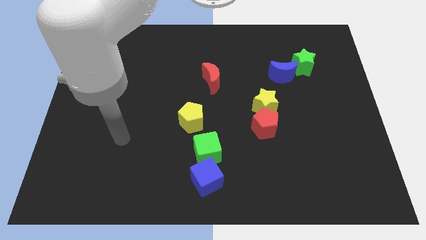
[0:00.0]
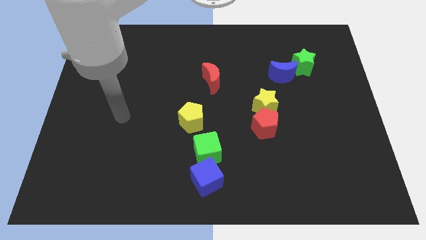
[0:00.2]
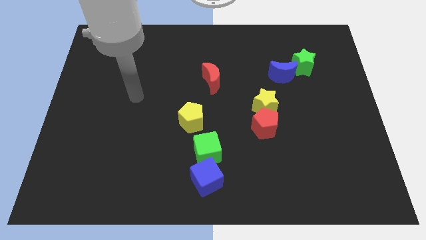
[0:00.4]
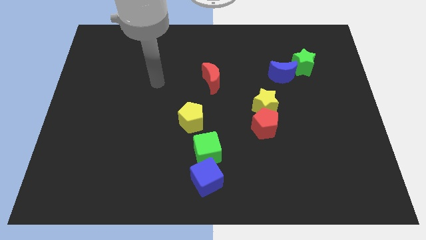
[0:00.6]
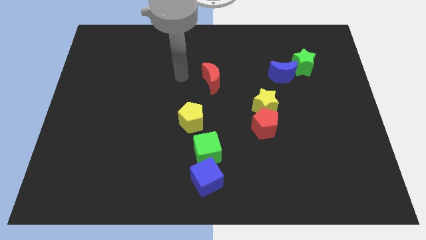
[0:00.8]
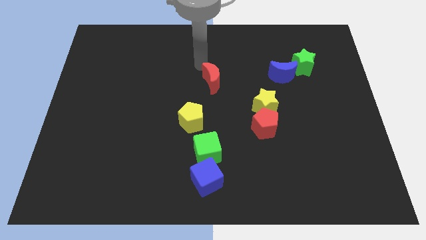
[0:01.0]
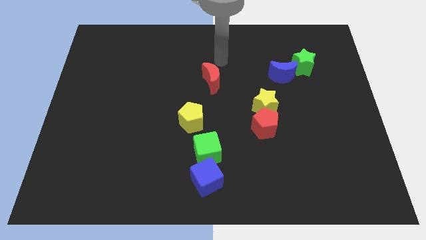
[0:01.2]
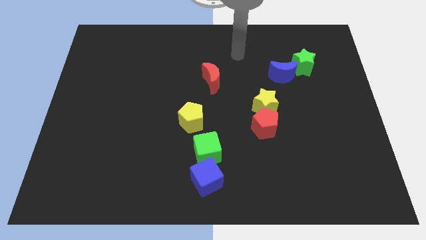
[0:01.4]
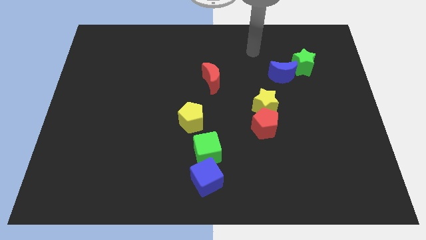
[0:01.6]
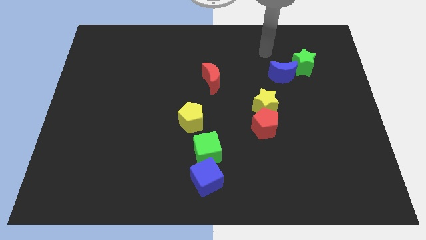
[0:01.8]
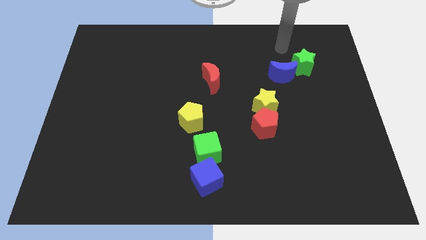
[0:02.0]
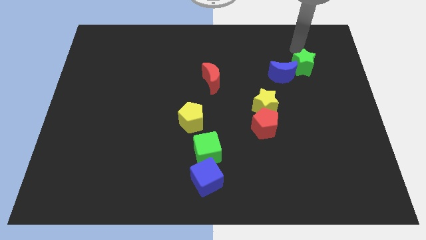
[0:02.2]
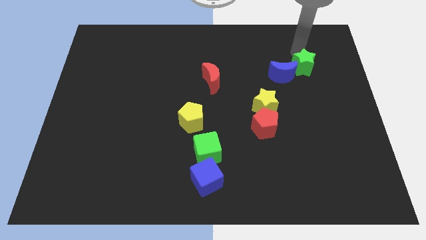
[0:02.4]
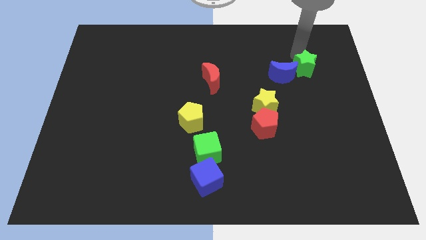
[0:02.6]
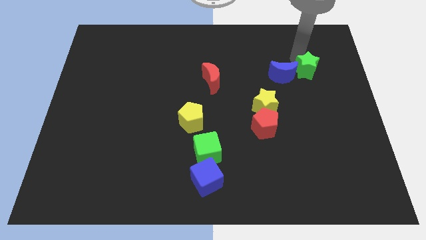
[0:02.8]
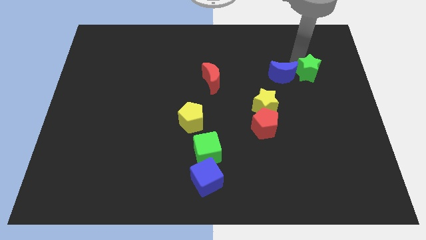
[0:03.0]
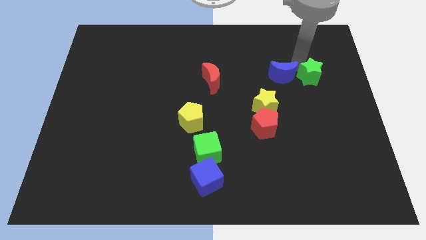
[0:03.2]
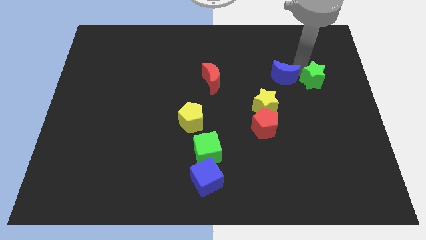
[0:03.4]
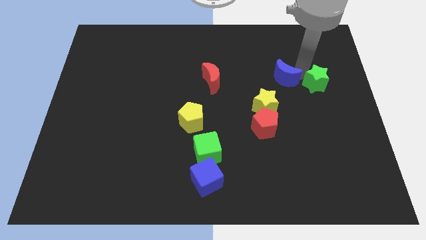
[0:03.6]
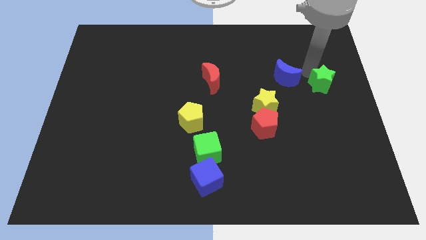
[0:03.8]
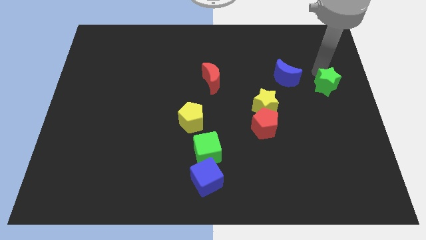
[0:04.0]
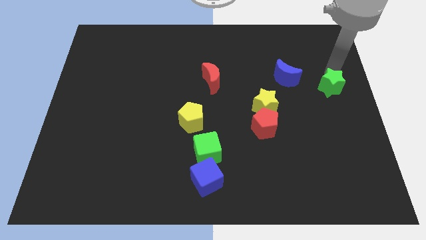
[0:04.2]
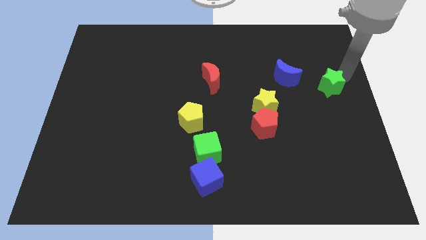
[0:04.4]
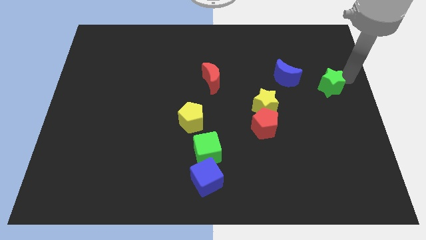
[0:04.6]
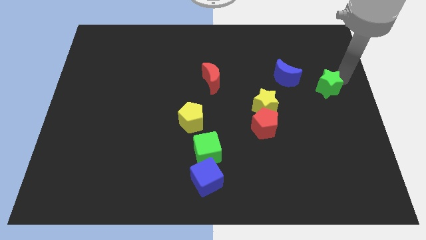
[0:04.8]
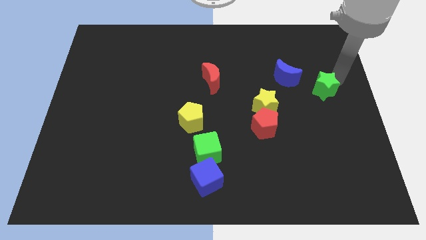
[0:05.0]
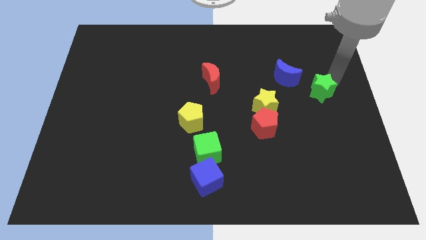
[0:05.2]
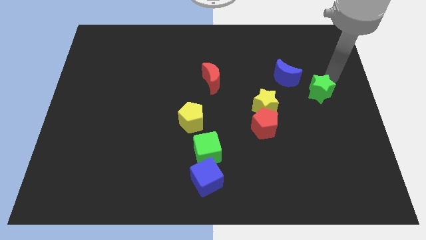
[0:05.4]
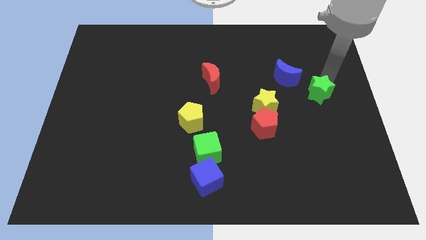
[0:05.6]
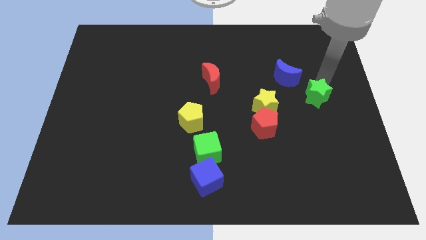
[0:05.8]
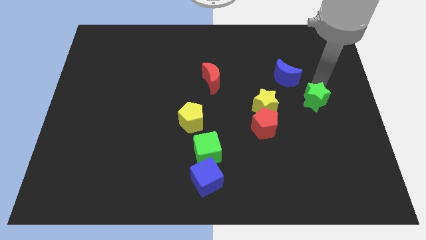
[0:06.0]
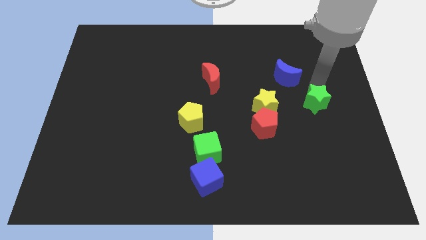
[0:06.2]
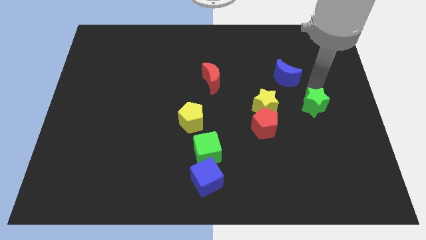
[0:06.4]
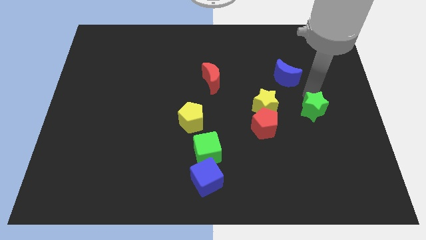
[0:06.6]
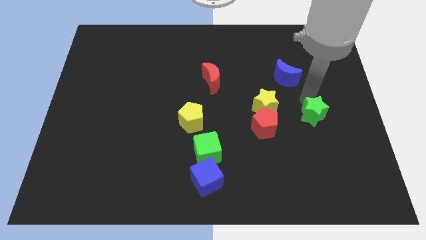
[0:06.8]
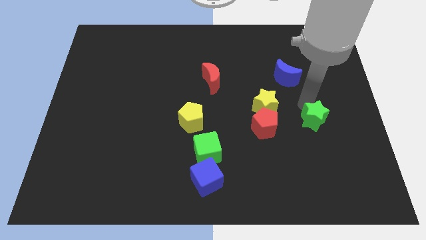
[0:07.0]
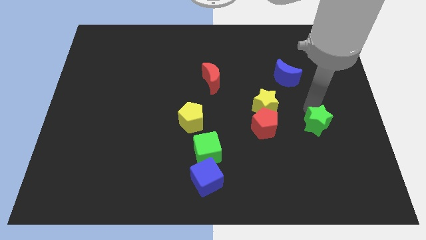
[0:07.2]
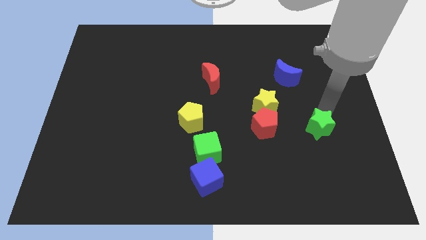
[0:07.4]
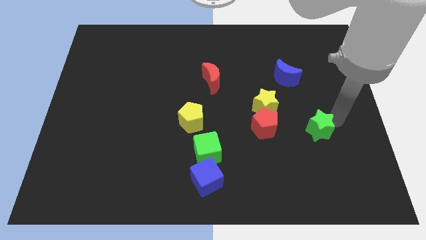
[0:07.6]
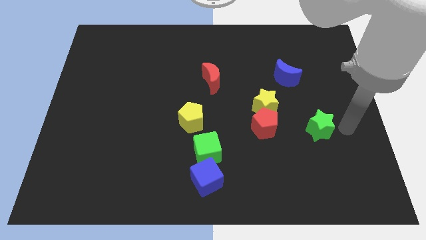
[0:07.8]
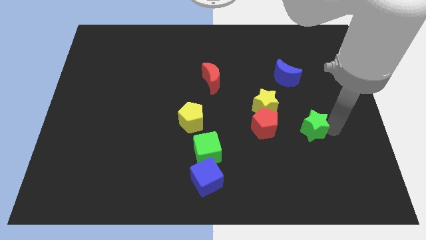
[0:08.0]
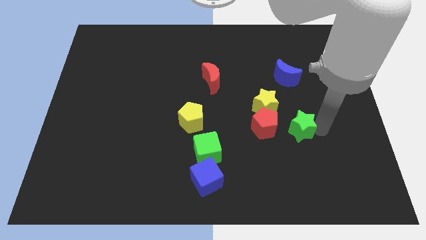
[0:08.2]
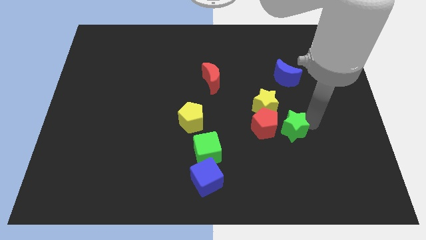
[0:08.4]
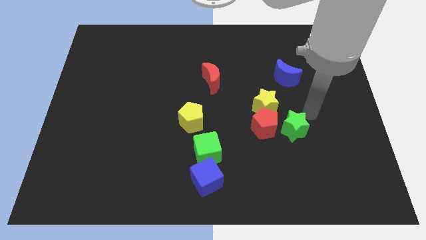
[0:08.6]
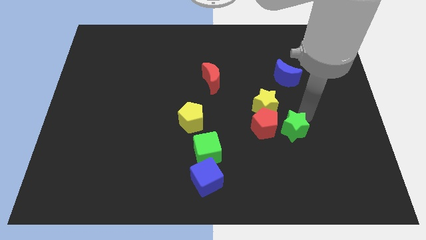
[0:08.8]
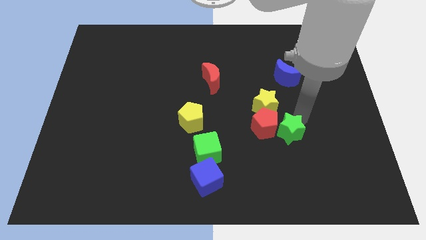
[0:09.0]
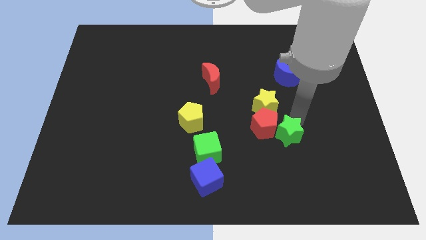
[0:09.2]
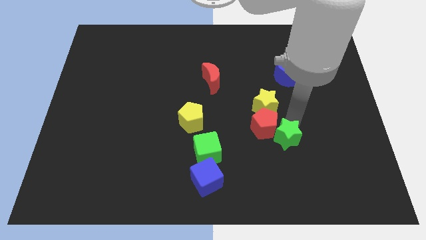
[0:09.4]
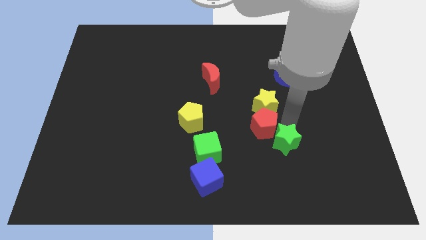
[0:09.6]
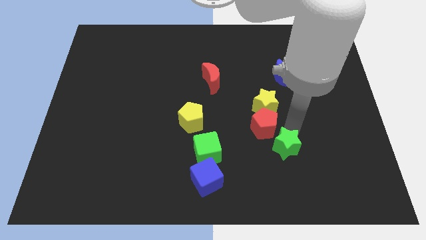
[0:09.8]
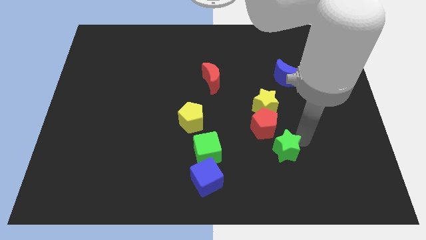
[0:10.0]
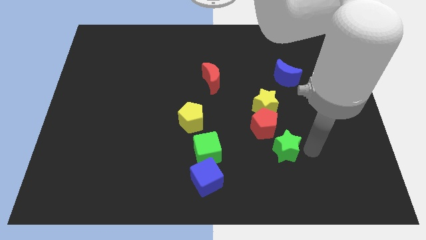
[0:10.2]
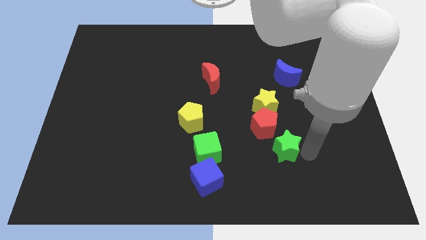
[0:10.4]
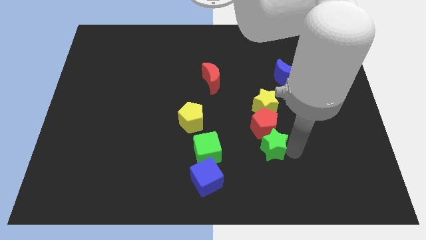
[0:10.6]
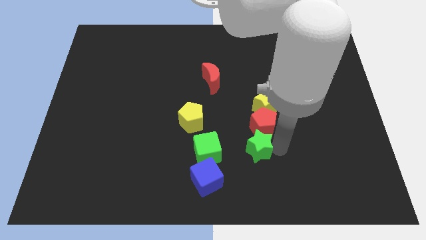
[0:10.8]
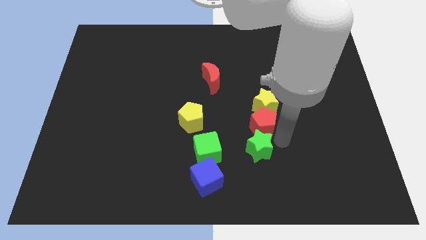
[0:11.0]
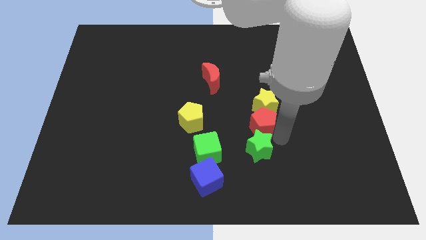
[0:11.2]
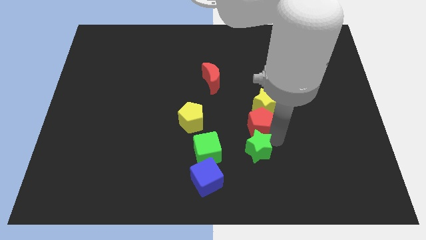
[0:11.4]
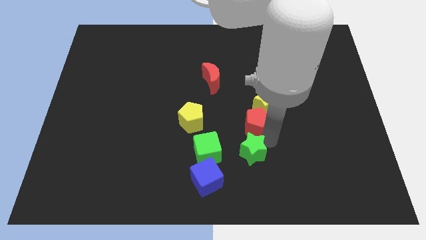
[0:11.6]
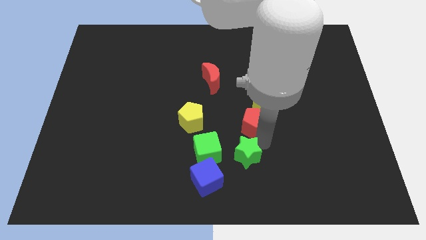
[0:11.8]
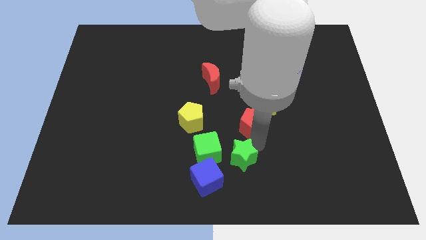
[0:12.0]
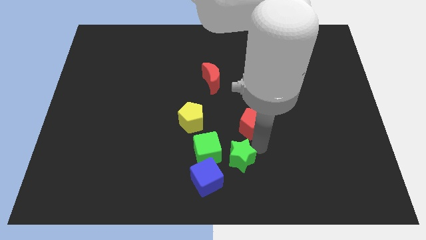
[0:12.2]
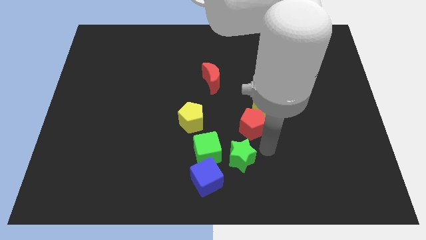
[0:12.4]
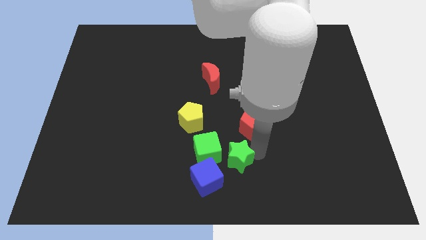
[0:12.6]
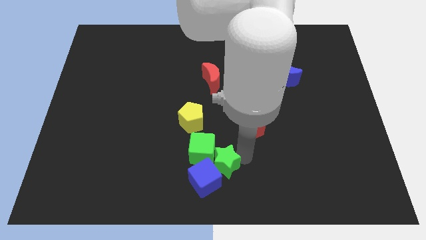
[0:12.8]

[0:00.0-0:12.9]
slide the green star next to the blue cube
